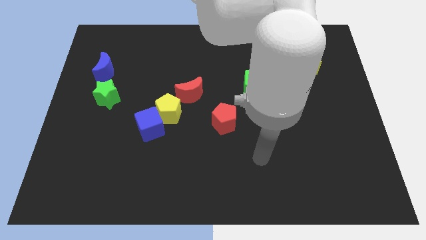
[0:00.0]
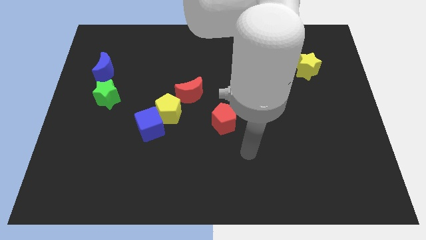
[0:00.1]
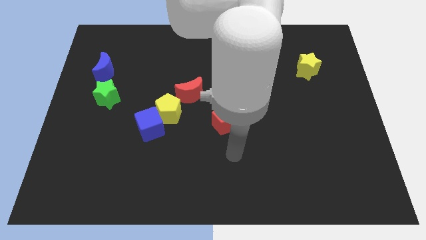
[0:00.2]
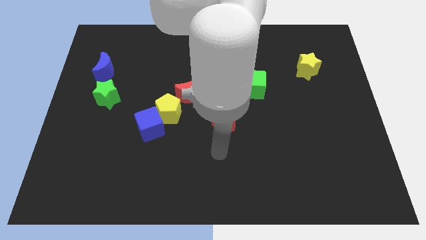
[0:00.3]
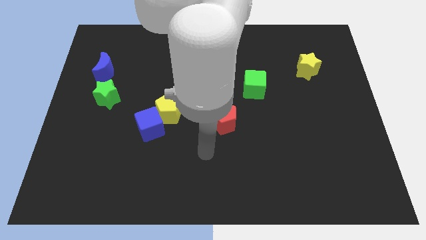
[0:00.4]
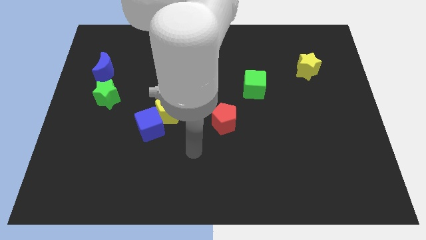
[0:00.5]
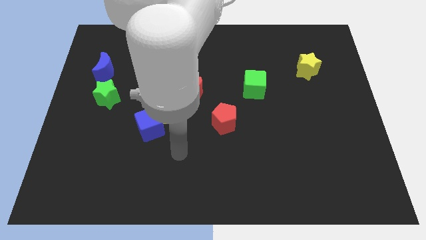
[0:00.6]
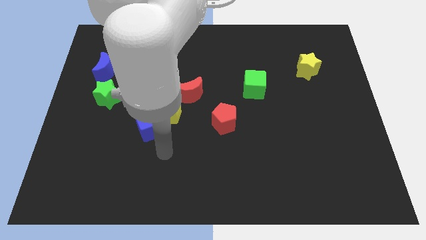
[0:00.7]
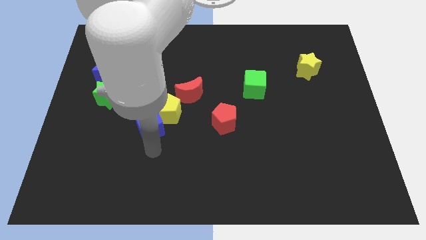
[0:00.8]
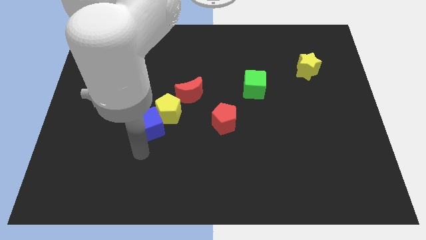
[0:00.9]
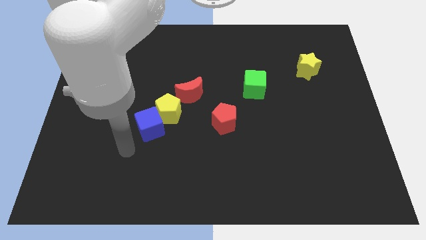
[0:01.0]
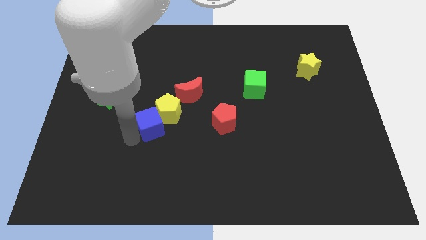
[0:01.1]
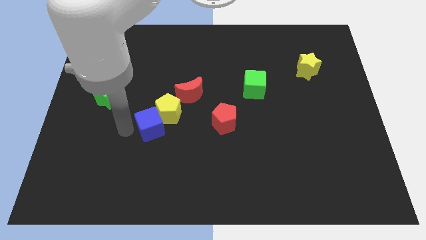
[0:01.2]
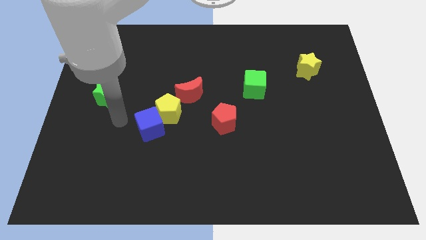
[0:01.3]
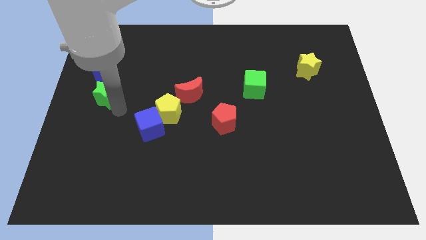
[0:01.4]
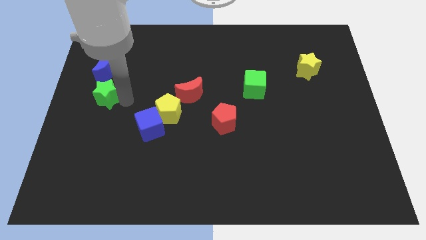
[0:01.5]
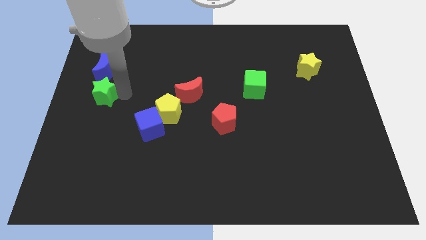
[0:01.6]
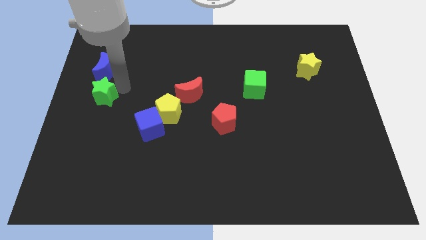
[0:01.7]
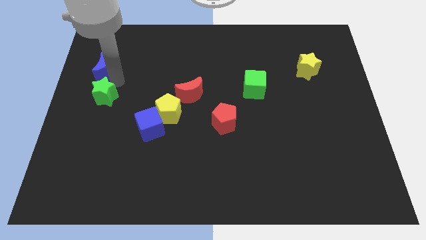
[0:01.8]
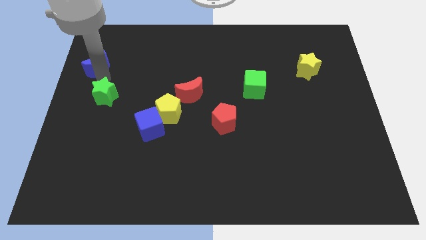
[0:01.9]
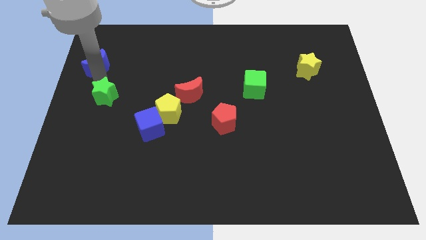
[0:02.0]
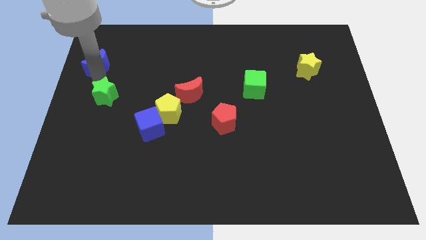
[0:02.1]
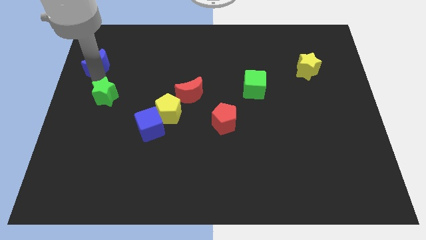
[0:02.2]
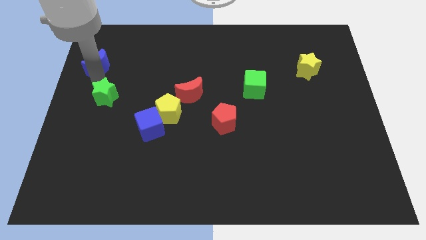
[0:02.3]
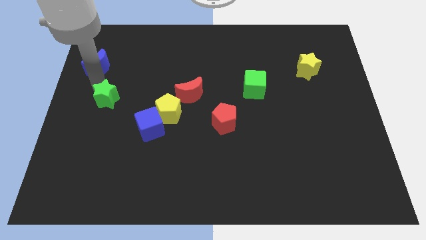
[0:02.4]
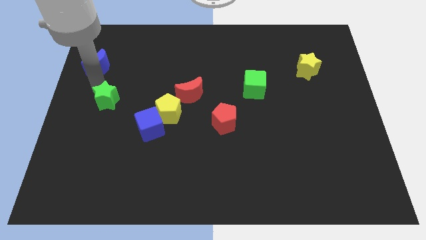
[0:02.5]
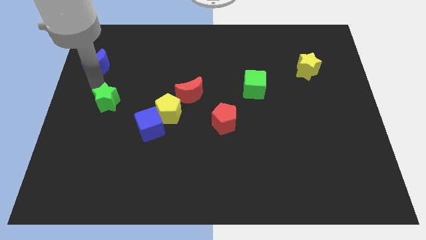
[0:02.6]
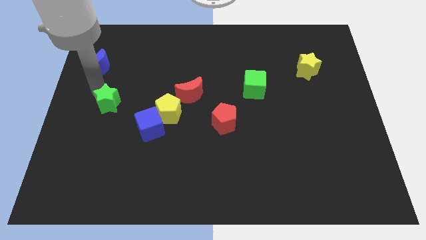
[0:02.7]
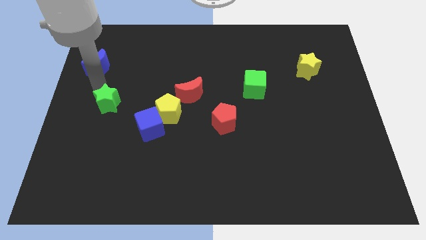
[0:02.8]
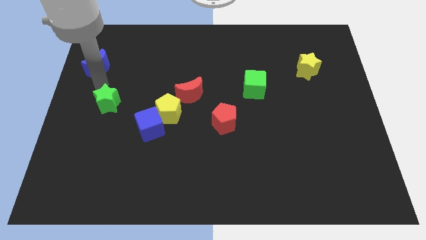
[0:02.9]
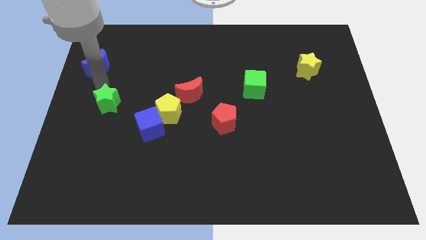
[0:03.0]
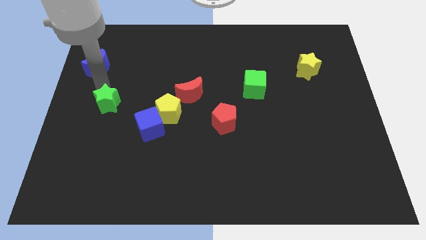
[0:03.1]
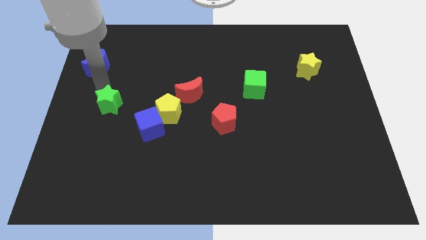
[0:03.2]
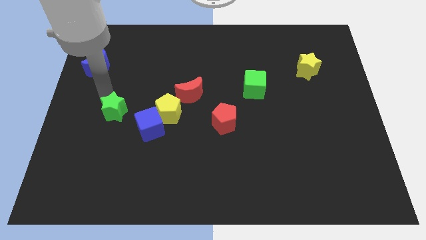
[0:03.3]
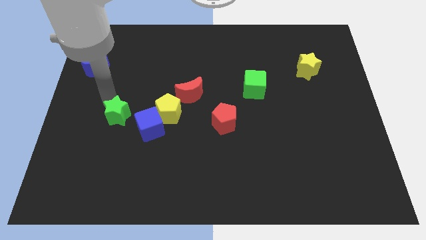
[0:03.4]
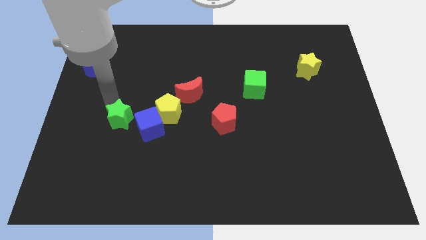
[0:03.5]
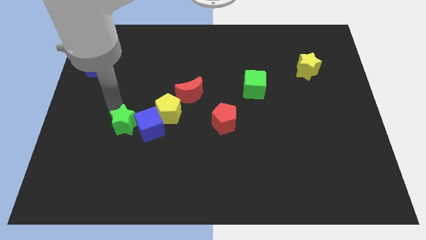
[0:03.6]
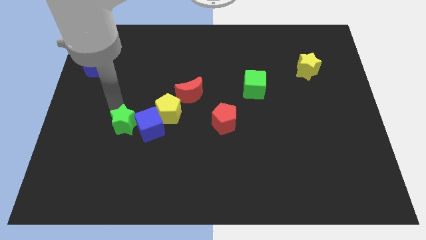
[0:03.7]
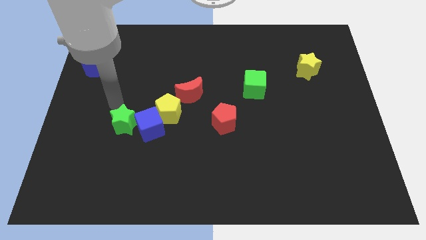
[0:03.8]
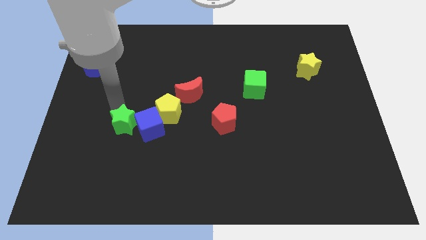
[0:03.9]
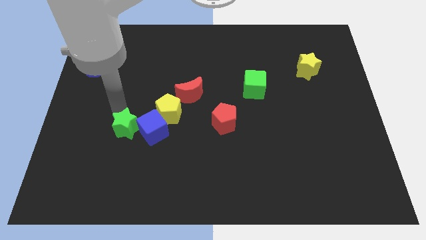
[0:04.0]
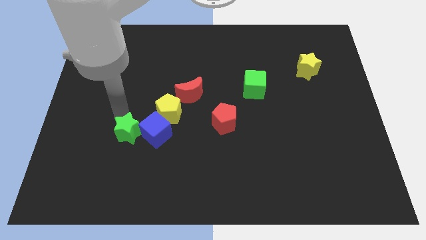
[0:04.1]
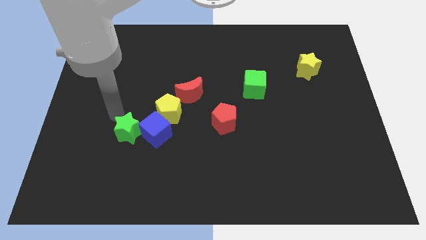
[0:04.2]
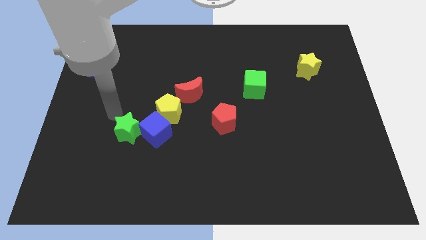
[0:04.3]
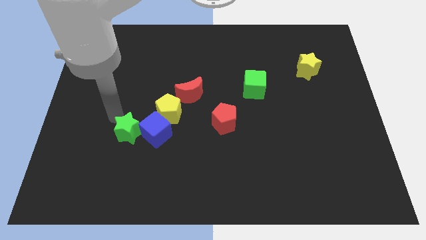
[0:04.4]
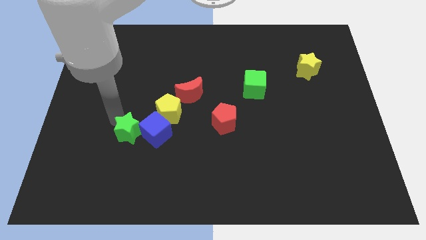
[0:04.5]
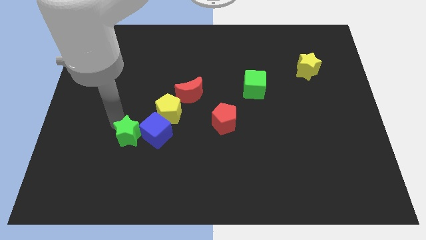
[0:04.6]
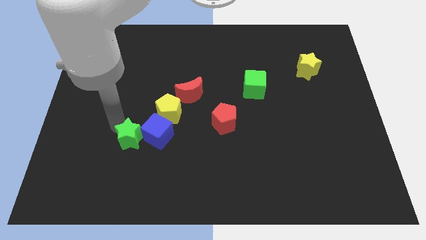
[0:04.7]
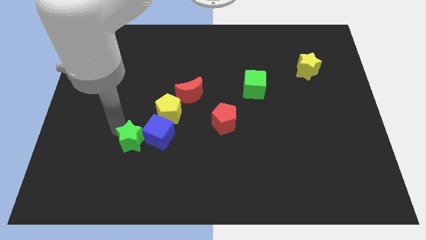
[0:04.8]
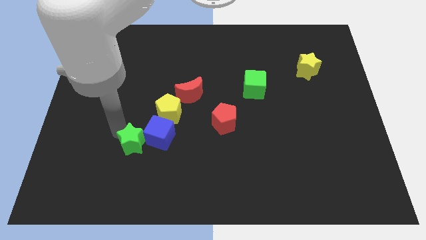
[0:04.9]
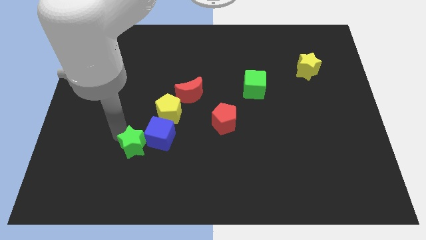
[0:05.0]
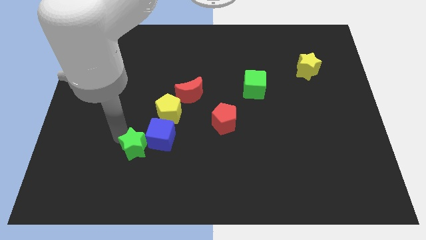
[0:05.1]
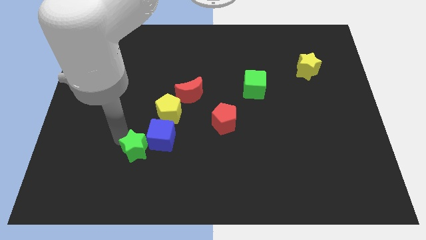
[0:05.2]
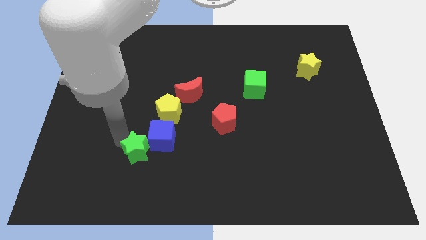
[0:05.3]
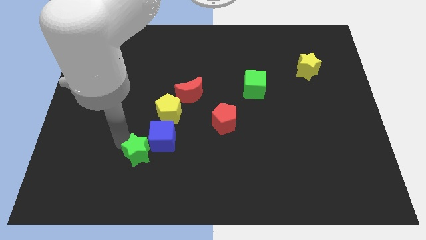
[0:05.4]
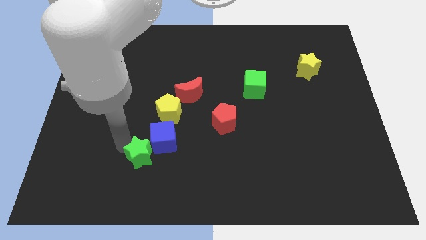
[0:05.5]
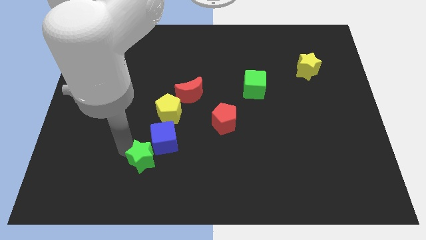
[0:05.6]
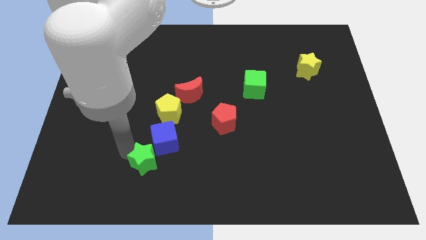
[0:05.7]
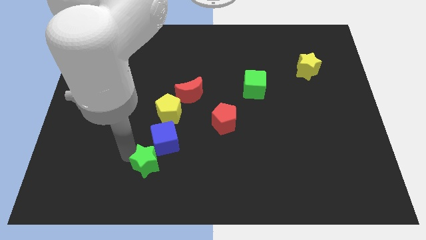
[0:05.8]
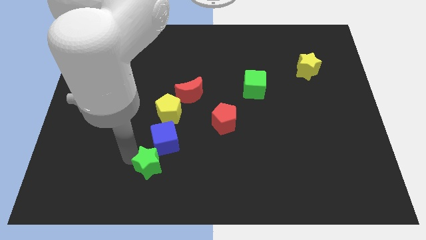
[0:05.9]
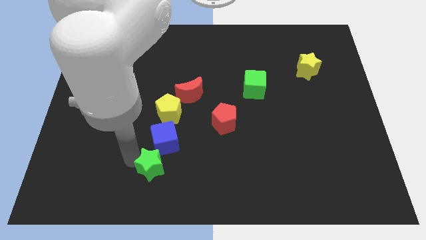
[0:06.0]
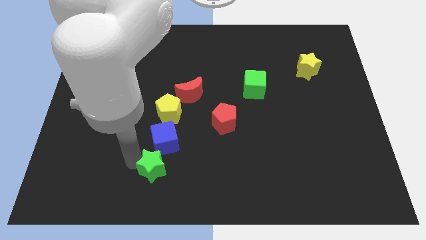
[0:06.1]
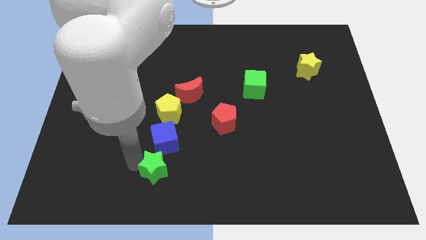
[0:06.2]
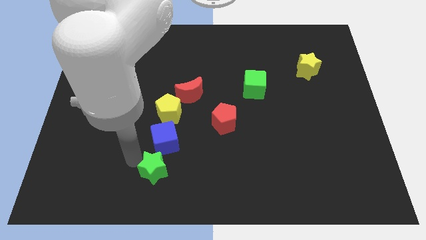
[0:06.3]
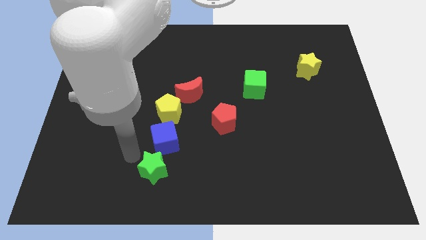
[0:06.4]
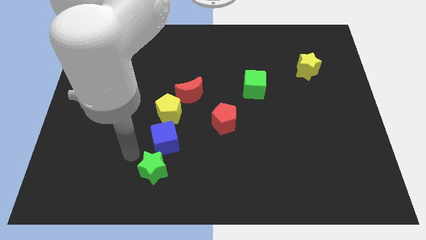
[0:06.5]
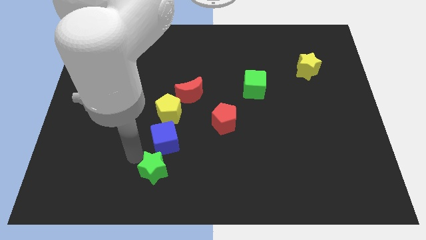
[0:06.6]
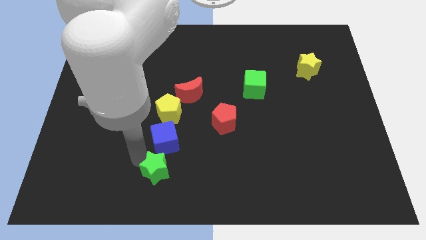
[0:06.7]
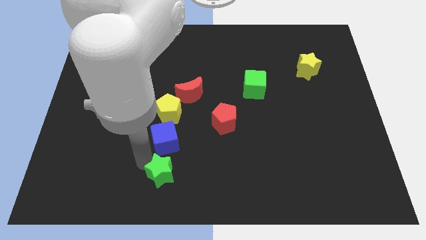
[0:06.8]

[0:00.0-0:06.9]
slide the green star to the bottom side
